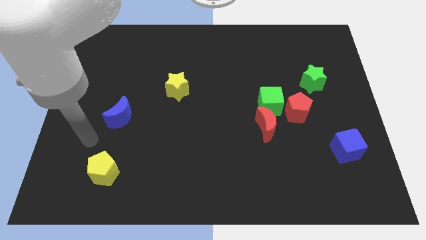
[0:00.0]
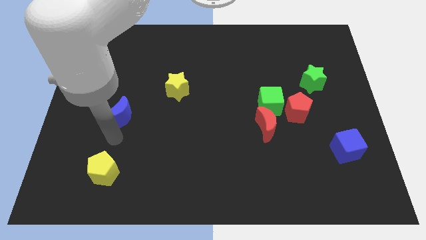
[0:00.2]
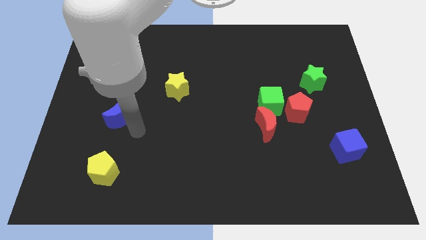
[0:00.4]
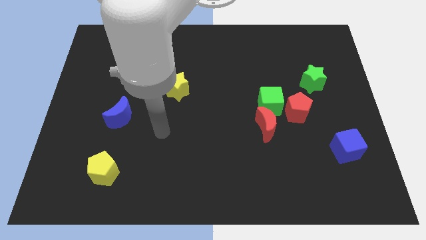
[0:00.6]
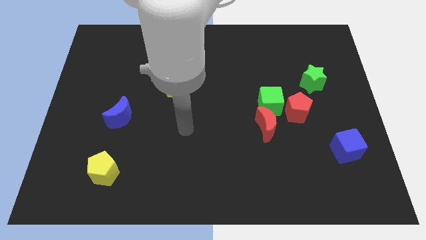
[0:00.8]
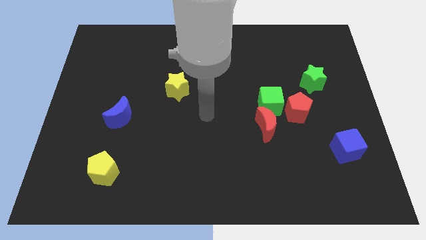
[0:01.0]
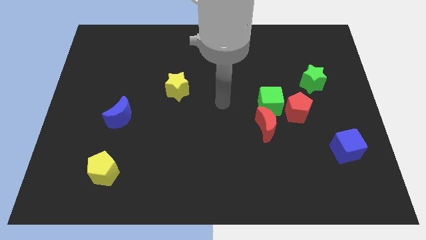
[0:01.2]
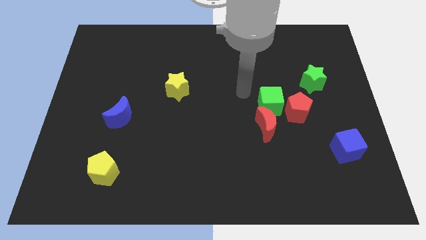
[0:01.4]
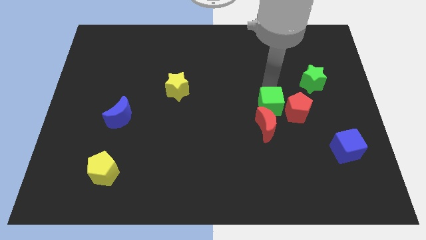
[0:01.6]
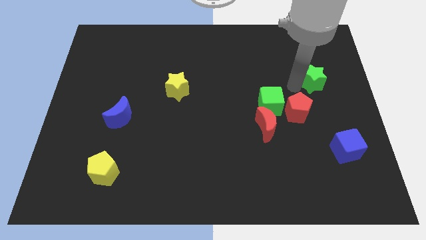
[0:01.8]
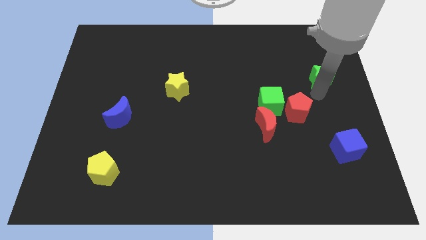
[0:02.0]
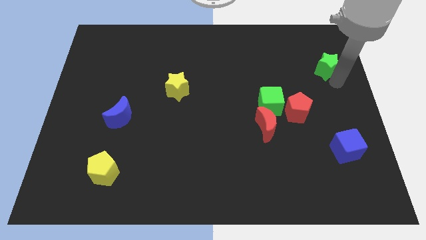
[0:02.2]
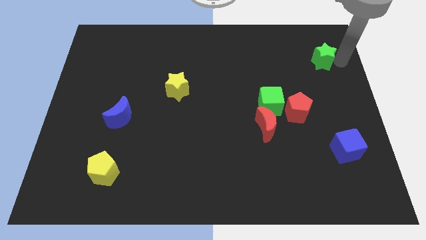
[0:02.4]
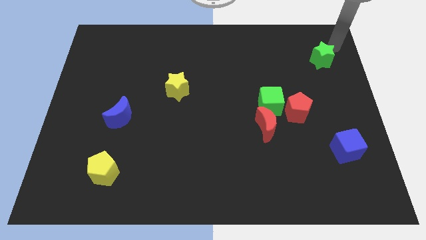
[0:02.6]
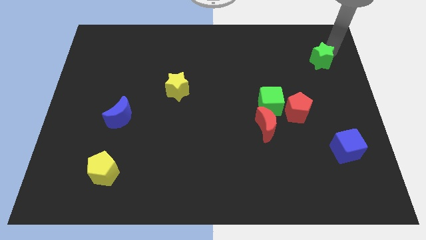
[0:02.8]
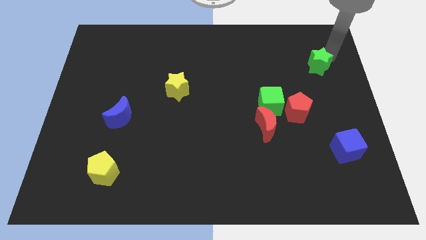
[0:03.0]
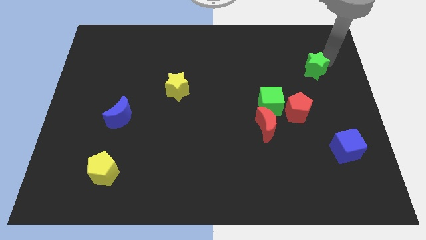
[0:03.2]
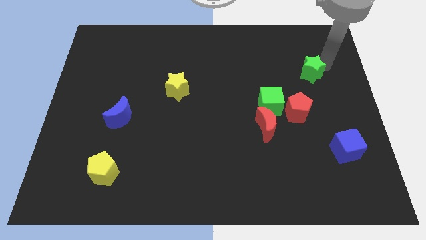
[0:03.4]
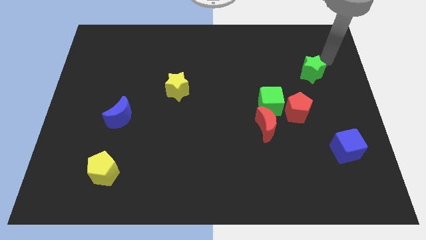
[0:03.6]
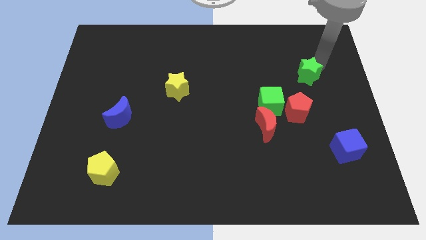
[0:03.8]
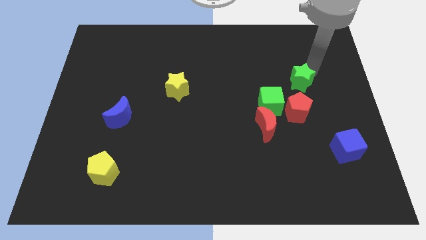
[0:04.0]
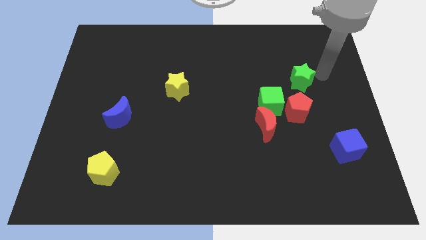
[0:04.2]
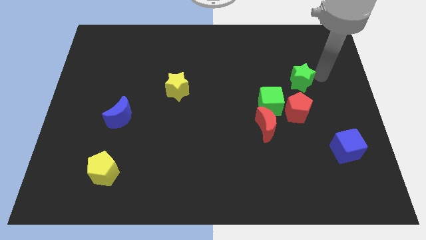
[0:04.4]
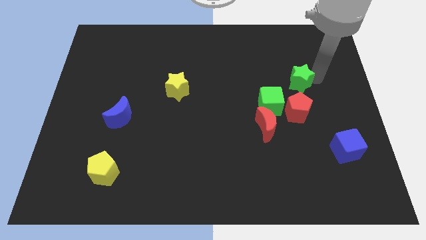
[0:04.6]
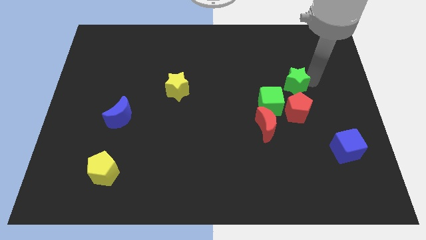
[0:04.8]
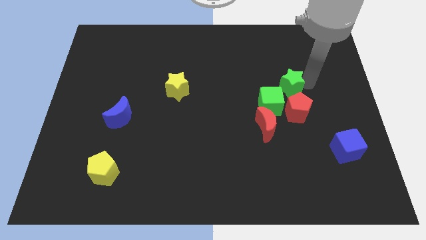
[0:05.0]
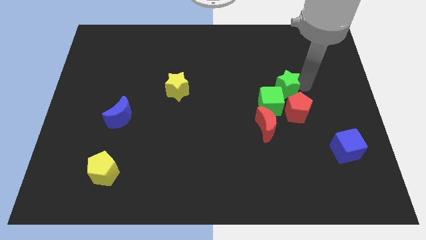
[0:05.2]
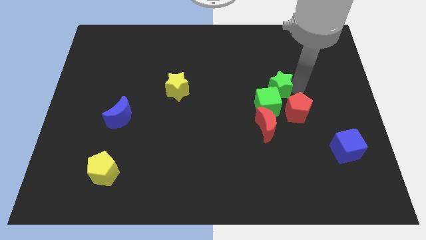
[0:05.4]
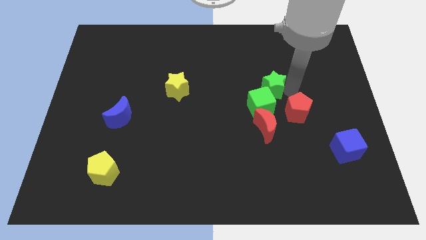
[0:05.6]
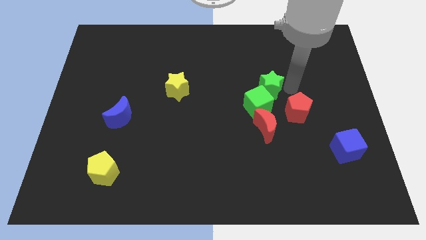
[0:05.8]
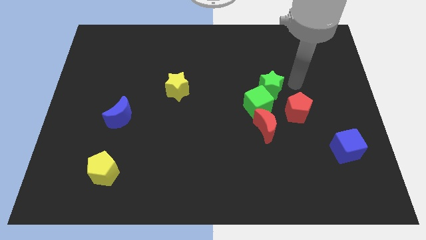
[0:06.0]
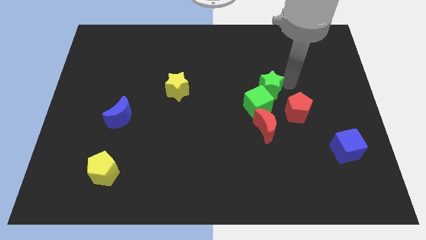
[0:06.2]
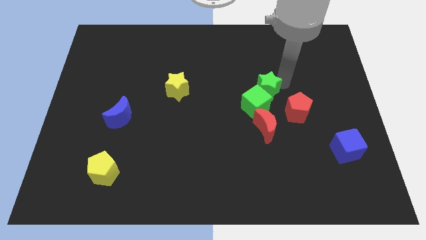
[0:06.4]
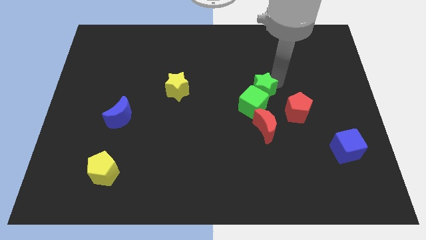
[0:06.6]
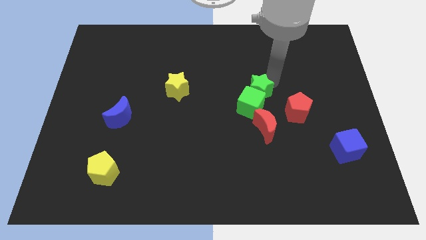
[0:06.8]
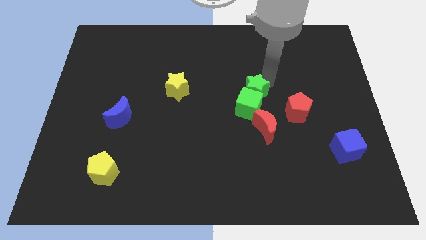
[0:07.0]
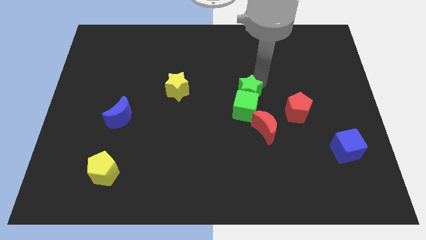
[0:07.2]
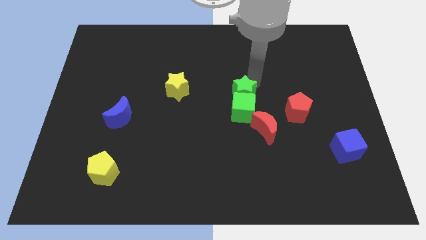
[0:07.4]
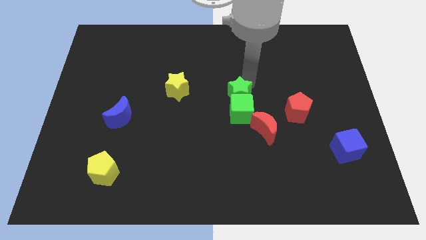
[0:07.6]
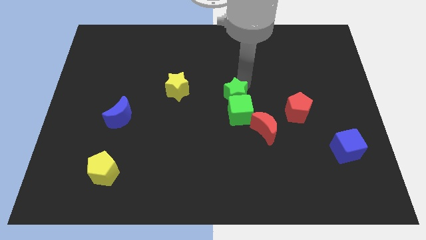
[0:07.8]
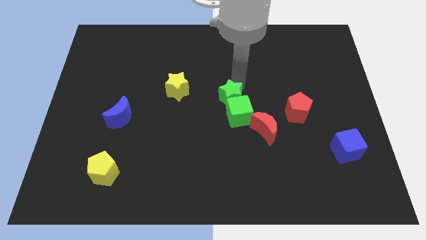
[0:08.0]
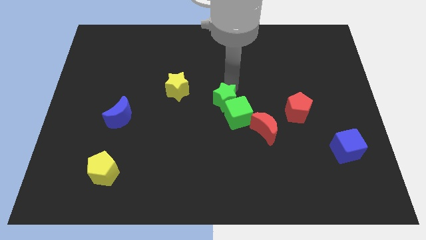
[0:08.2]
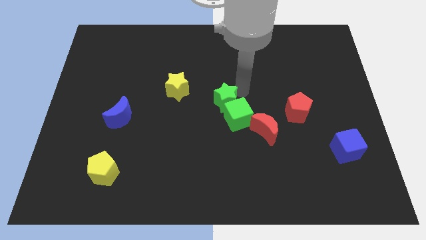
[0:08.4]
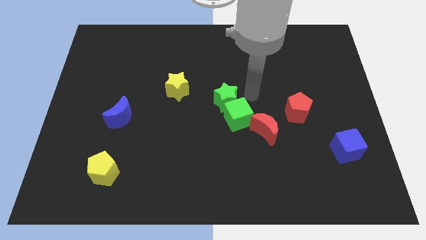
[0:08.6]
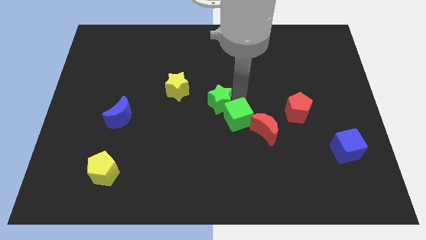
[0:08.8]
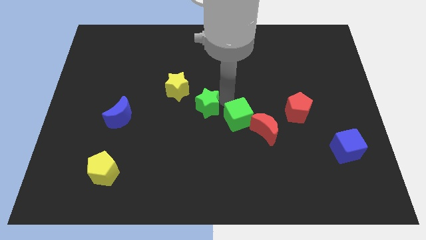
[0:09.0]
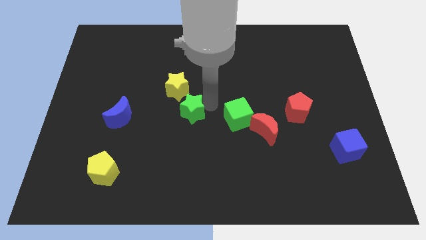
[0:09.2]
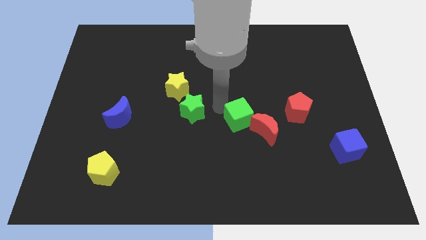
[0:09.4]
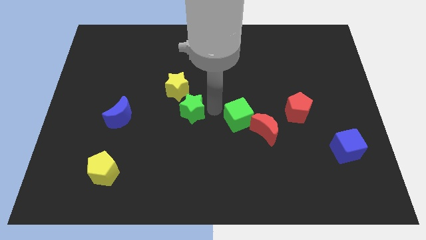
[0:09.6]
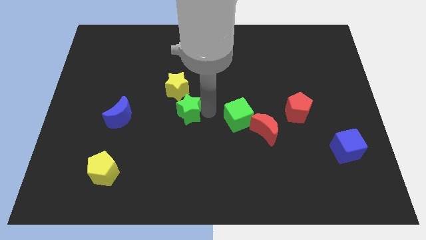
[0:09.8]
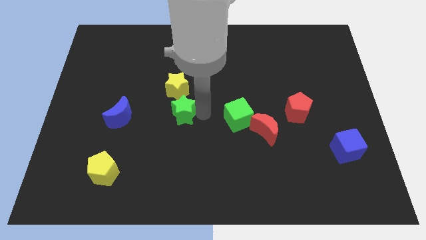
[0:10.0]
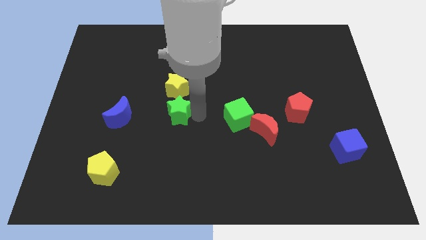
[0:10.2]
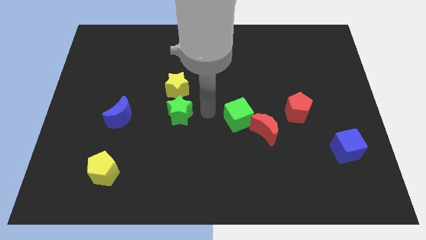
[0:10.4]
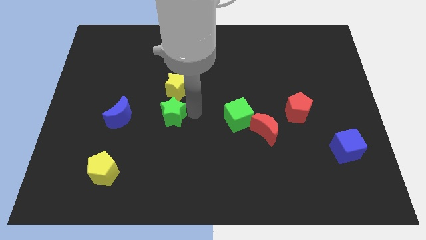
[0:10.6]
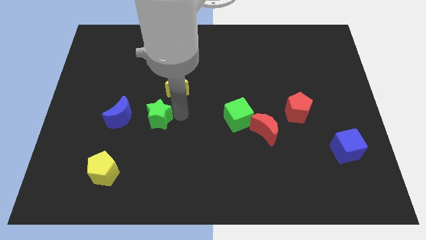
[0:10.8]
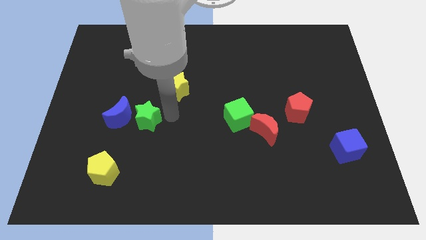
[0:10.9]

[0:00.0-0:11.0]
push the green star towards the blue moon

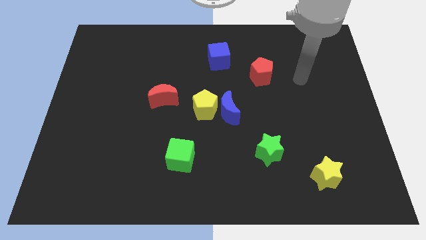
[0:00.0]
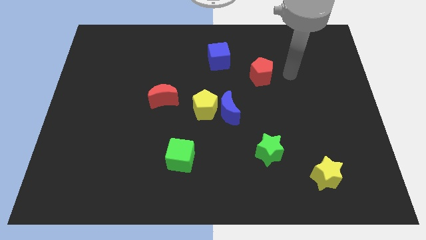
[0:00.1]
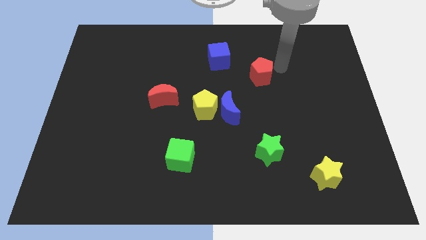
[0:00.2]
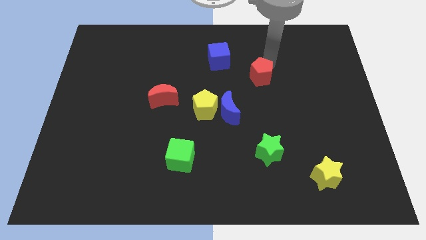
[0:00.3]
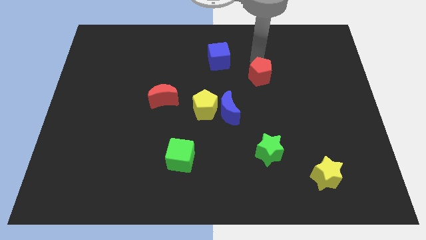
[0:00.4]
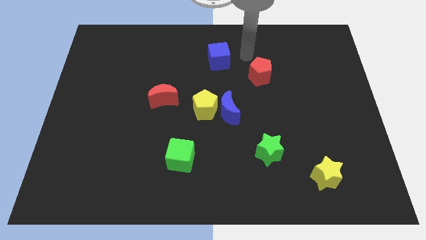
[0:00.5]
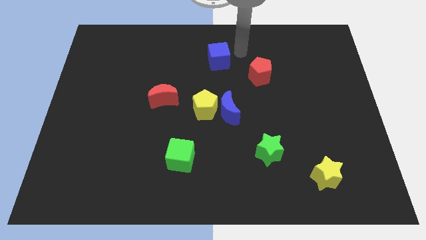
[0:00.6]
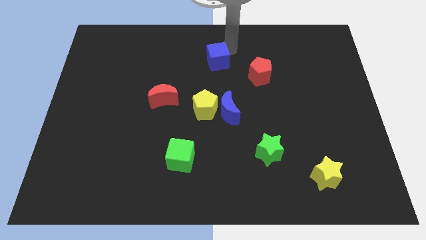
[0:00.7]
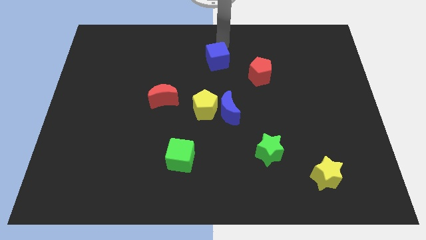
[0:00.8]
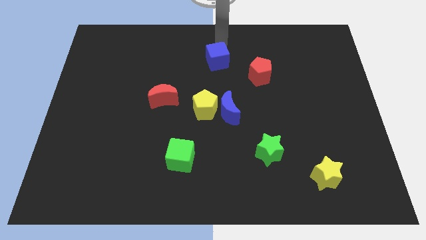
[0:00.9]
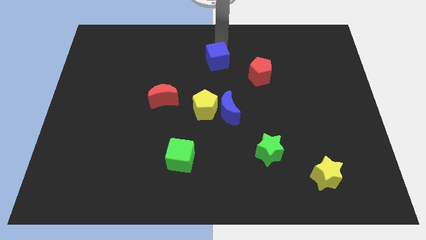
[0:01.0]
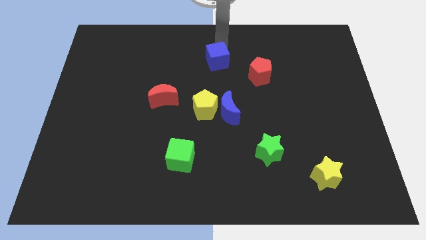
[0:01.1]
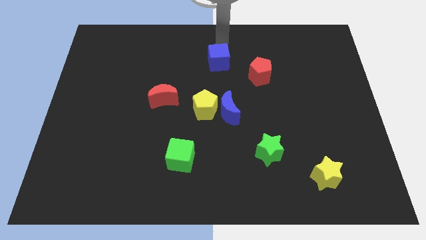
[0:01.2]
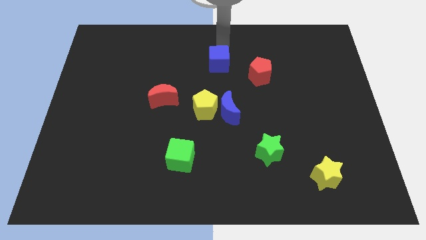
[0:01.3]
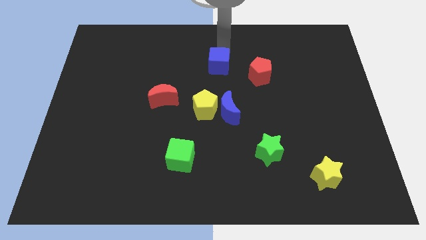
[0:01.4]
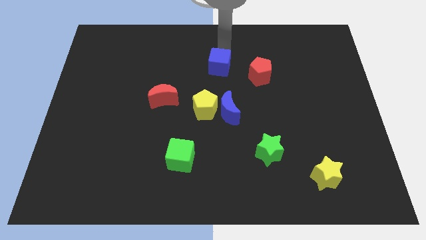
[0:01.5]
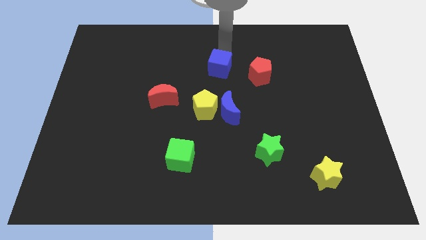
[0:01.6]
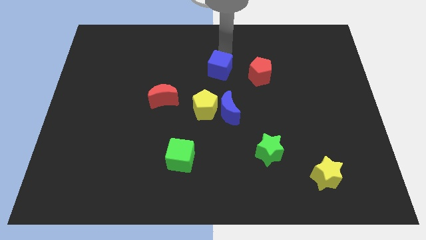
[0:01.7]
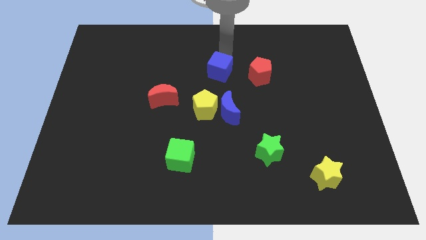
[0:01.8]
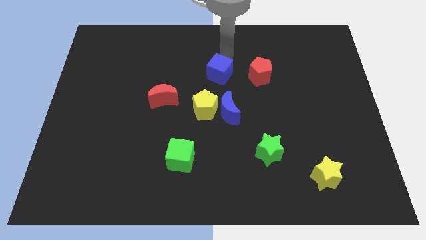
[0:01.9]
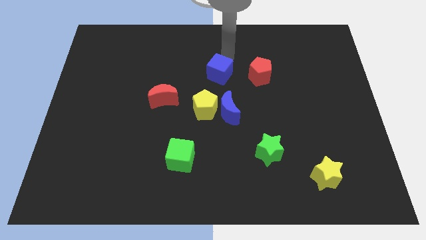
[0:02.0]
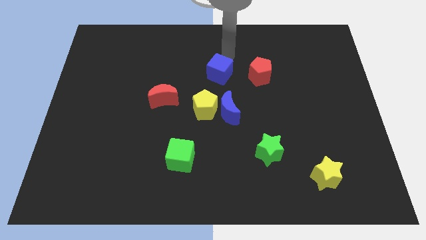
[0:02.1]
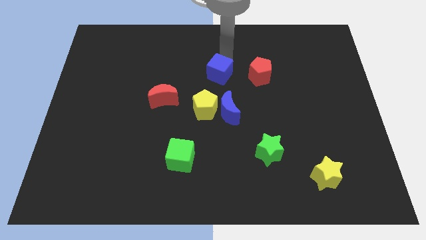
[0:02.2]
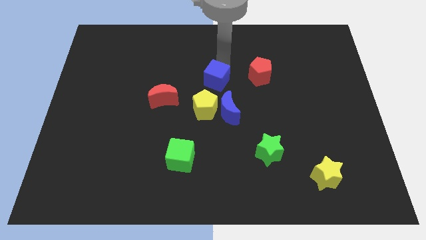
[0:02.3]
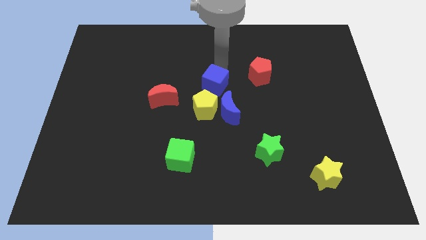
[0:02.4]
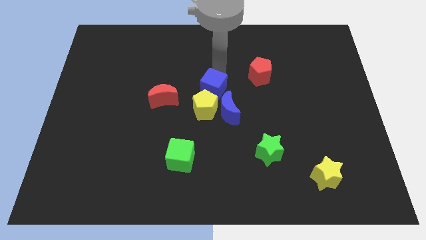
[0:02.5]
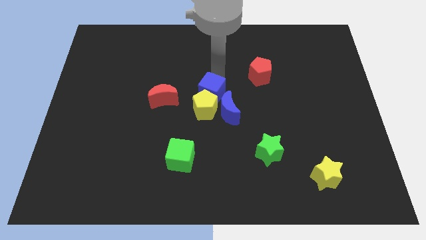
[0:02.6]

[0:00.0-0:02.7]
move the blue cube to the yellow pentagon
